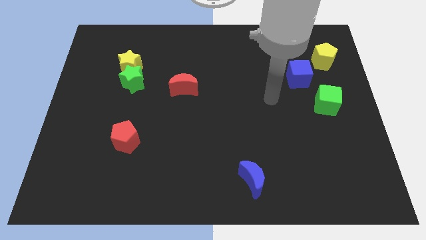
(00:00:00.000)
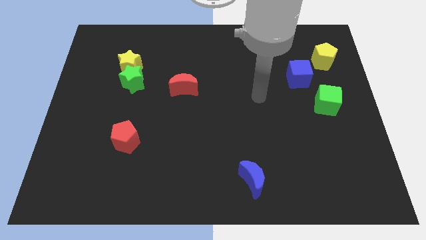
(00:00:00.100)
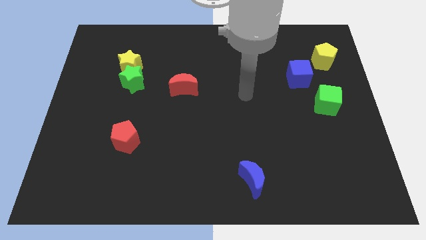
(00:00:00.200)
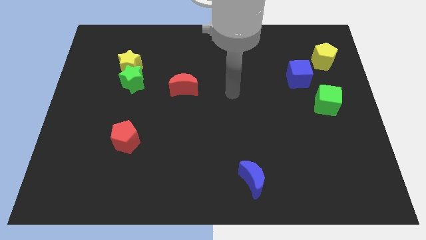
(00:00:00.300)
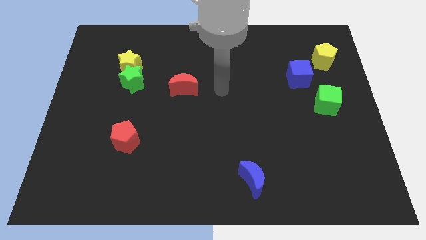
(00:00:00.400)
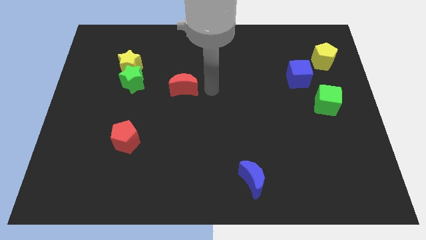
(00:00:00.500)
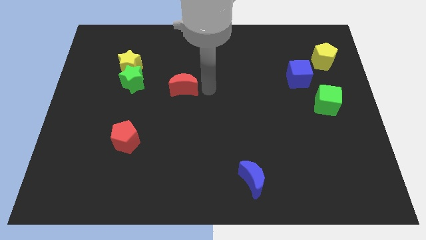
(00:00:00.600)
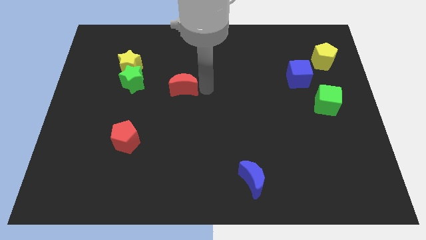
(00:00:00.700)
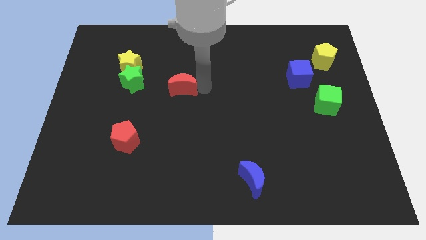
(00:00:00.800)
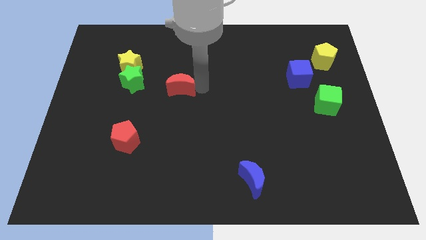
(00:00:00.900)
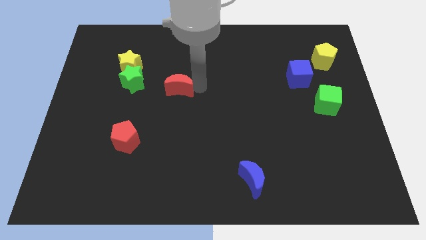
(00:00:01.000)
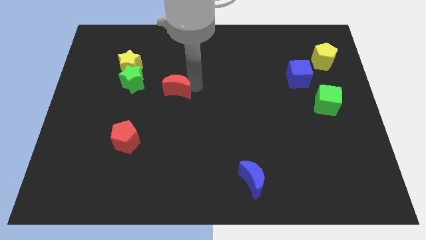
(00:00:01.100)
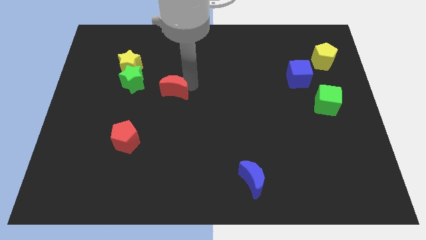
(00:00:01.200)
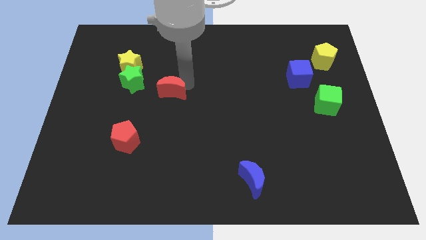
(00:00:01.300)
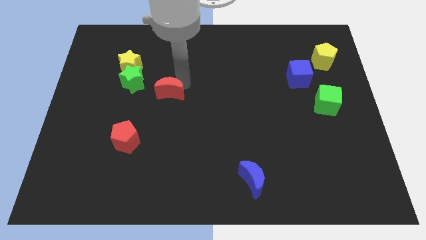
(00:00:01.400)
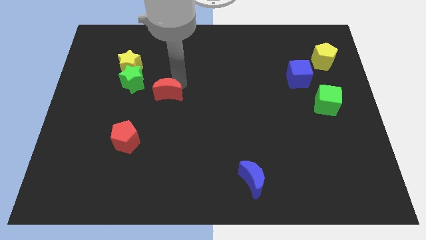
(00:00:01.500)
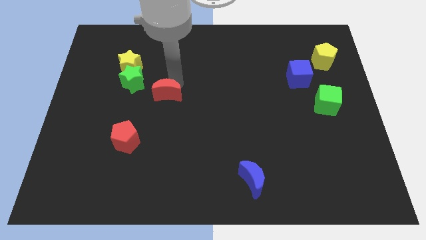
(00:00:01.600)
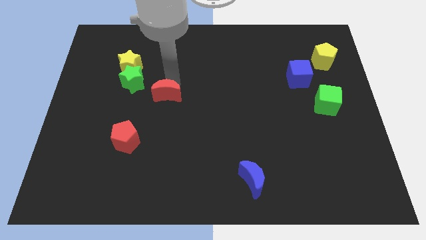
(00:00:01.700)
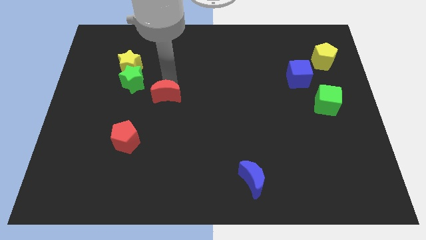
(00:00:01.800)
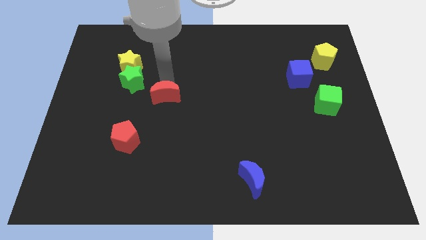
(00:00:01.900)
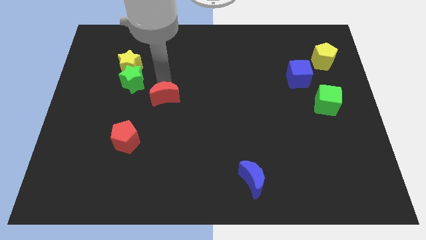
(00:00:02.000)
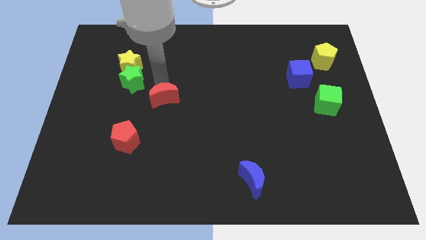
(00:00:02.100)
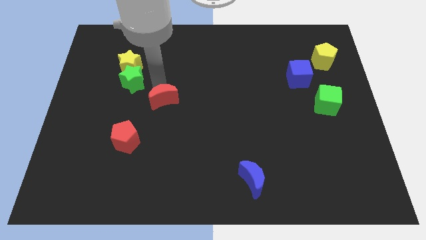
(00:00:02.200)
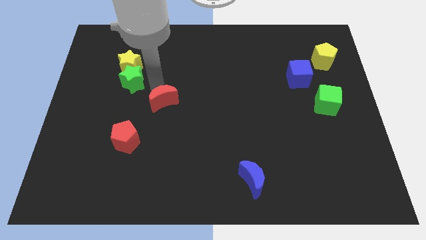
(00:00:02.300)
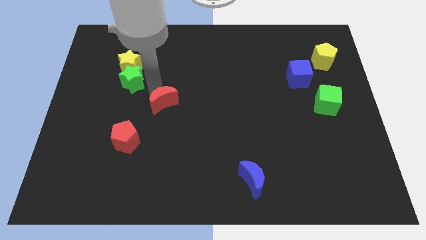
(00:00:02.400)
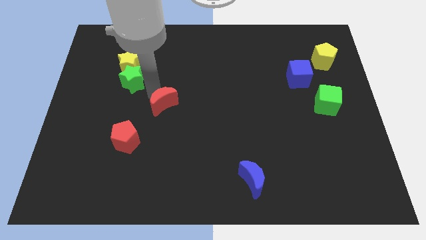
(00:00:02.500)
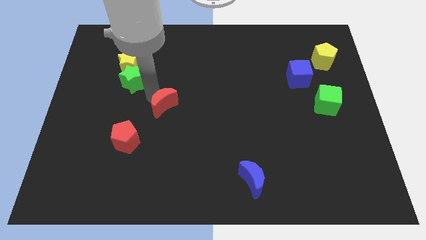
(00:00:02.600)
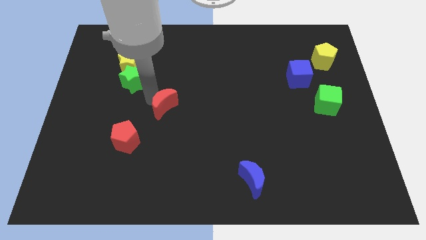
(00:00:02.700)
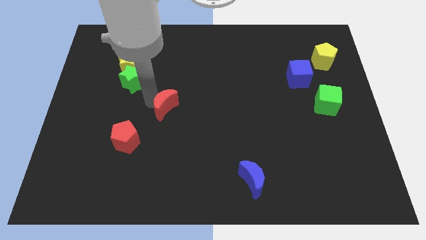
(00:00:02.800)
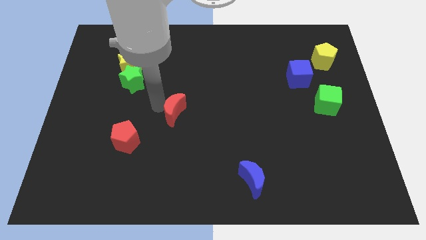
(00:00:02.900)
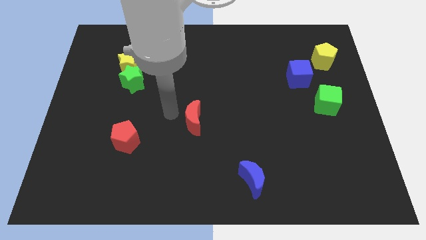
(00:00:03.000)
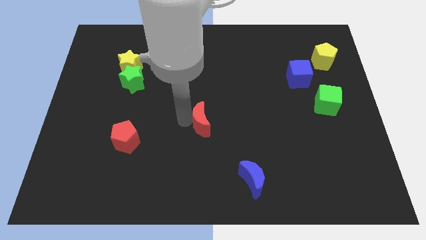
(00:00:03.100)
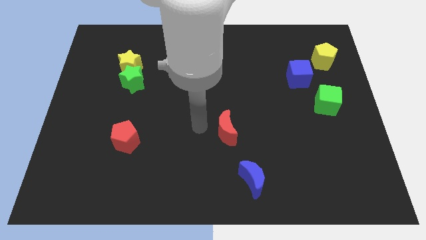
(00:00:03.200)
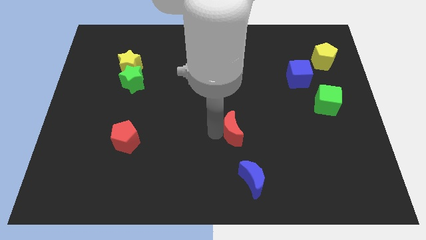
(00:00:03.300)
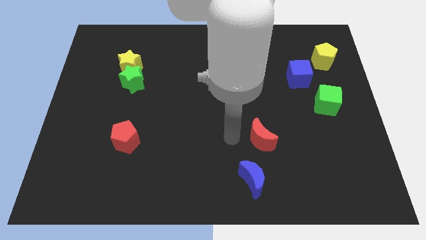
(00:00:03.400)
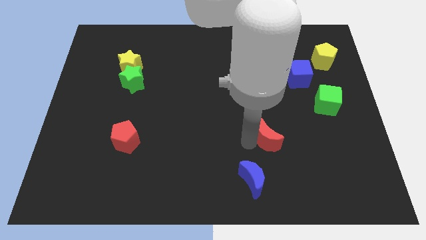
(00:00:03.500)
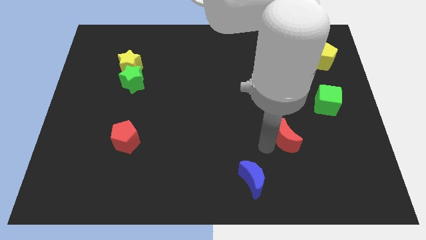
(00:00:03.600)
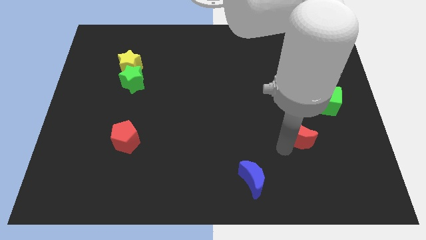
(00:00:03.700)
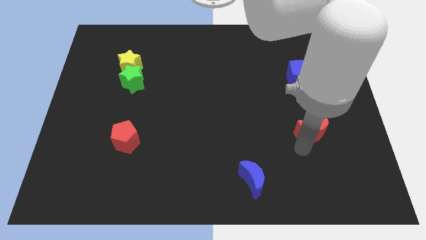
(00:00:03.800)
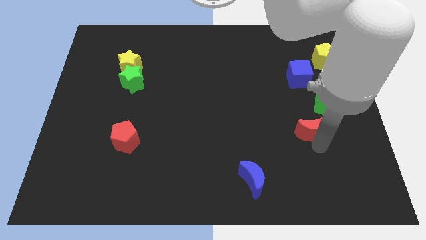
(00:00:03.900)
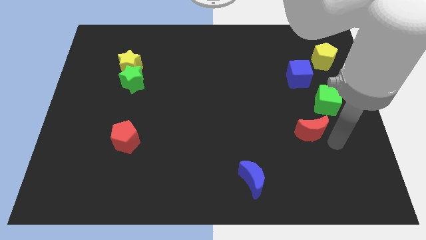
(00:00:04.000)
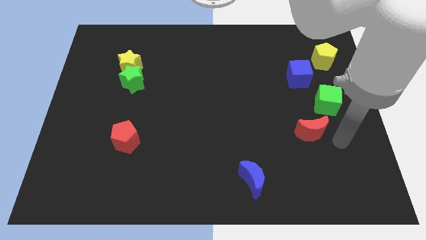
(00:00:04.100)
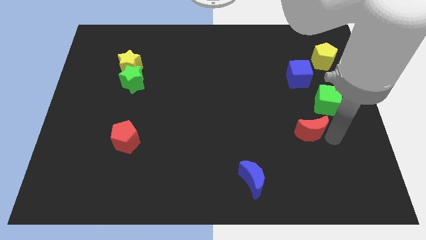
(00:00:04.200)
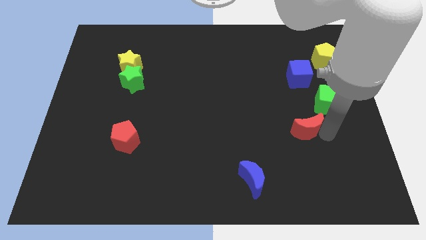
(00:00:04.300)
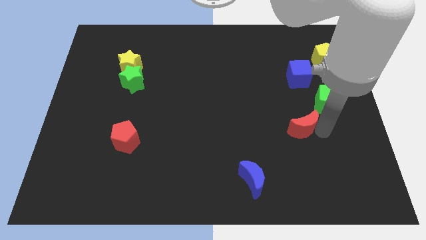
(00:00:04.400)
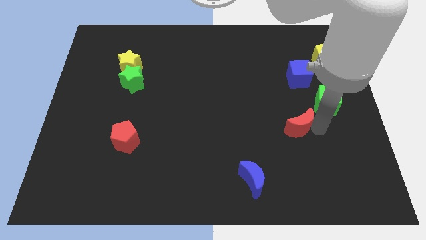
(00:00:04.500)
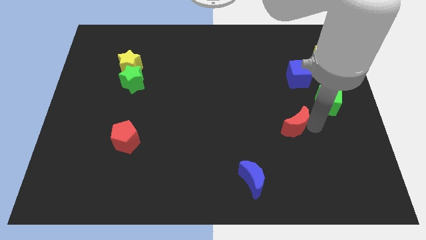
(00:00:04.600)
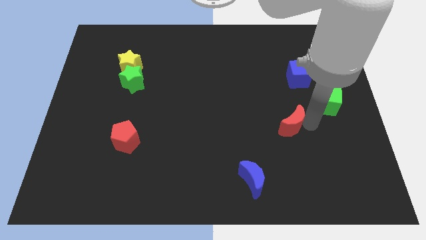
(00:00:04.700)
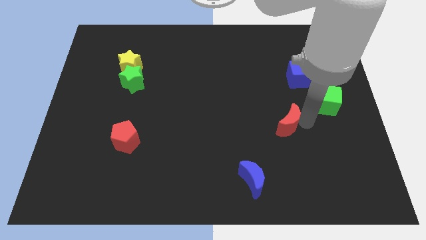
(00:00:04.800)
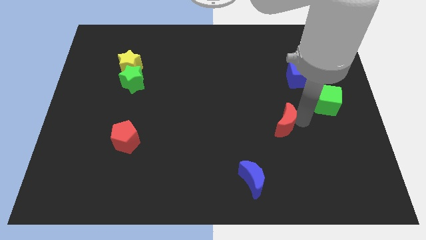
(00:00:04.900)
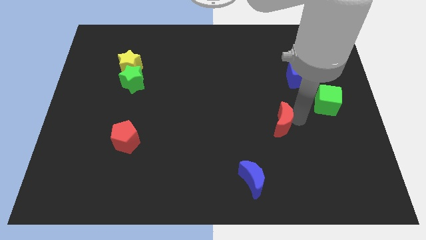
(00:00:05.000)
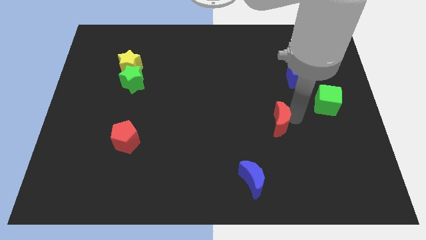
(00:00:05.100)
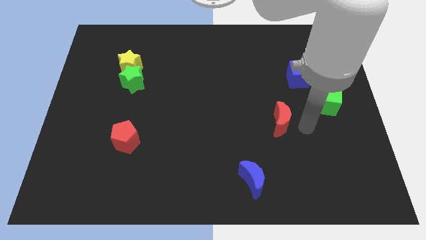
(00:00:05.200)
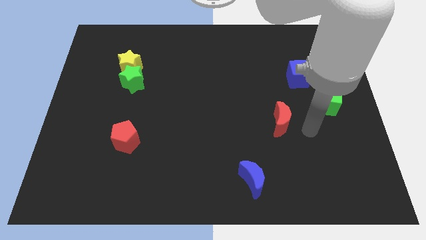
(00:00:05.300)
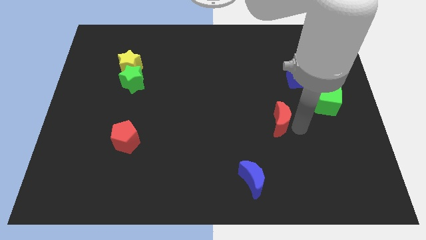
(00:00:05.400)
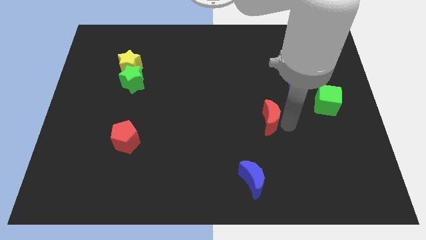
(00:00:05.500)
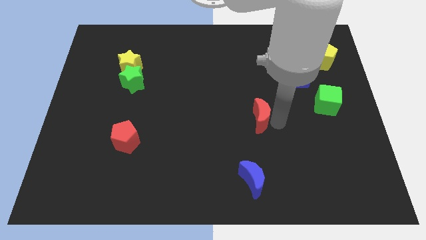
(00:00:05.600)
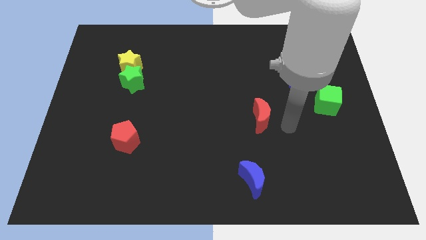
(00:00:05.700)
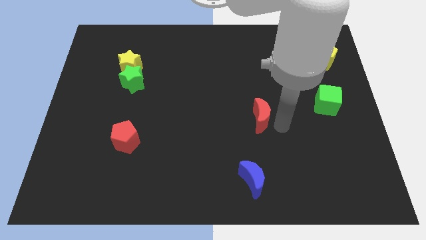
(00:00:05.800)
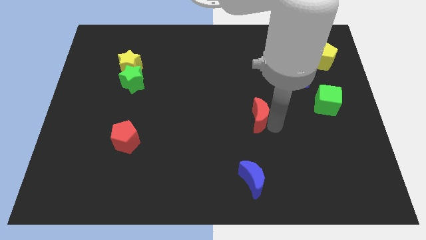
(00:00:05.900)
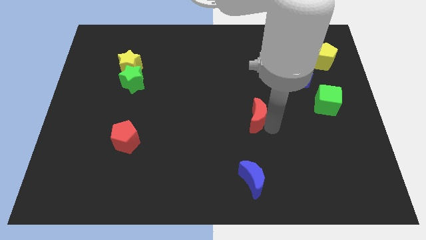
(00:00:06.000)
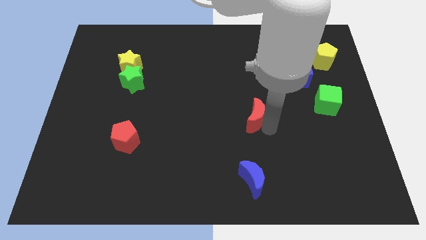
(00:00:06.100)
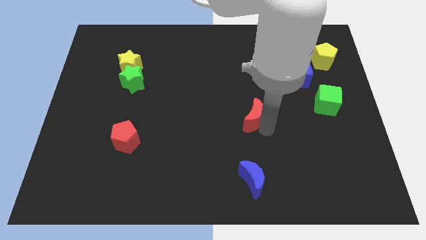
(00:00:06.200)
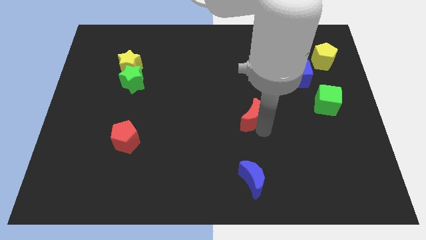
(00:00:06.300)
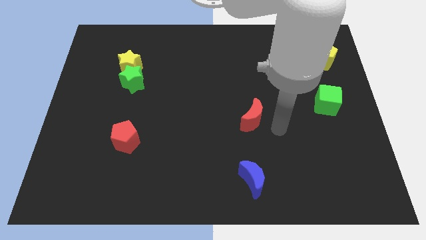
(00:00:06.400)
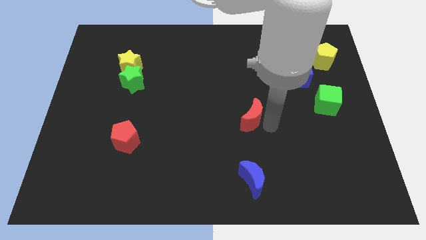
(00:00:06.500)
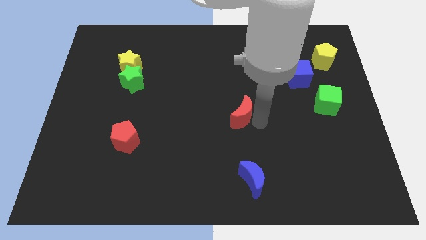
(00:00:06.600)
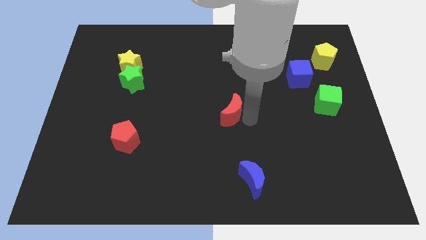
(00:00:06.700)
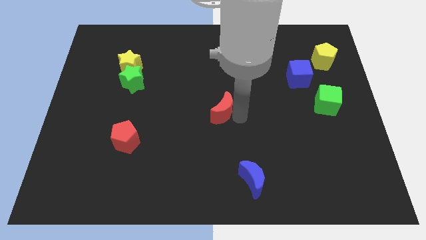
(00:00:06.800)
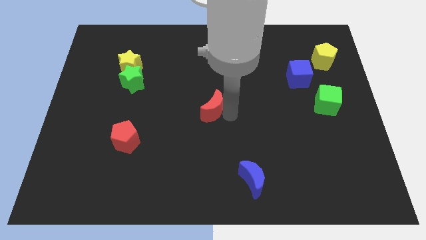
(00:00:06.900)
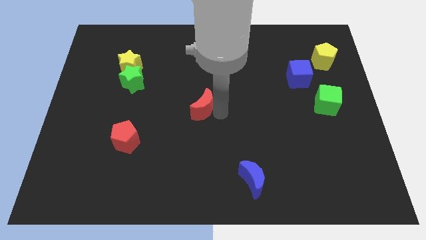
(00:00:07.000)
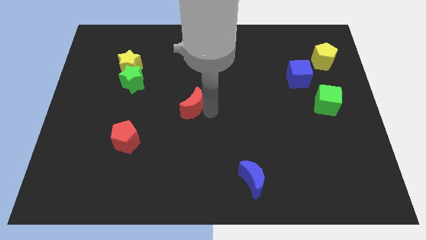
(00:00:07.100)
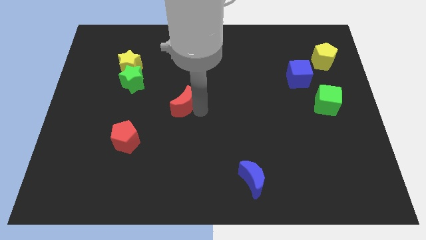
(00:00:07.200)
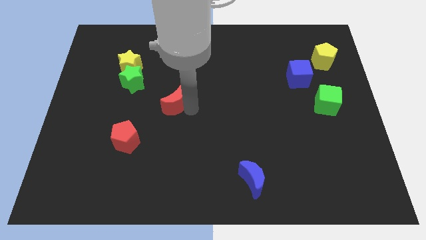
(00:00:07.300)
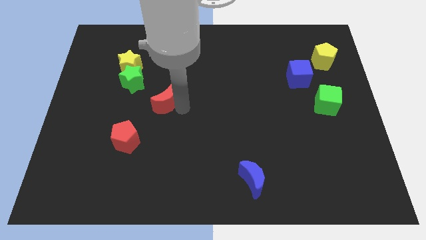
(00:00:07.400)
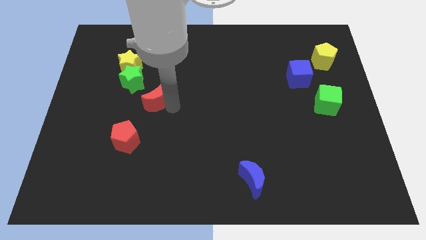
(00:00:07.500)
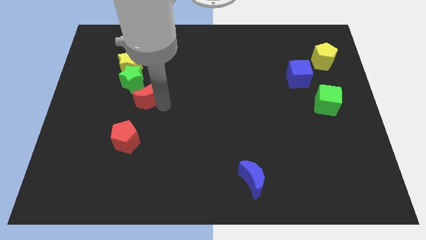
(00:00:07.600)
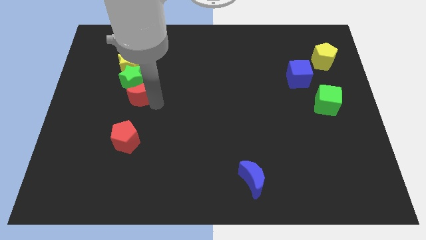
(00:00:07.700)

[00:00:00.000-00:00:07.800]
put the red moon to the green star
